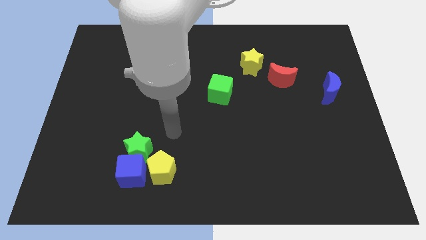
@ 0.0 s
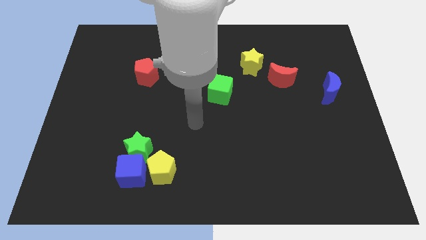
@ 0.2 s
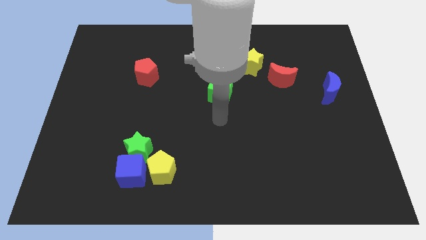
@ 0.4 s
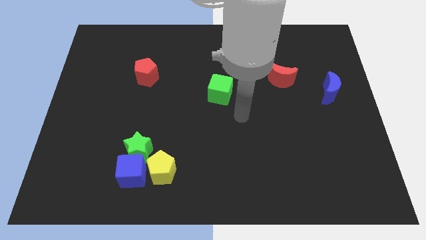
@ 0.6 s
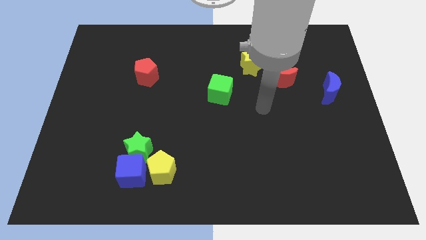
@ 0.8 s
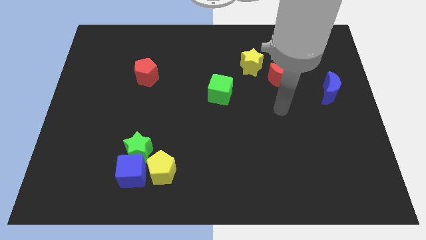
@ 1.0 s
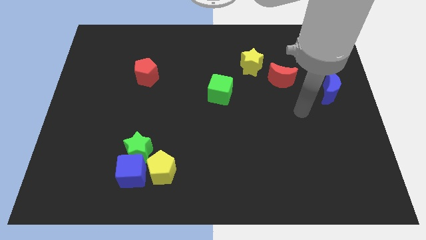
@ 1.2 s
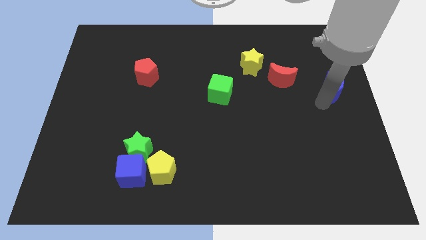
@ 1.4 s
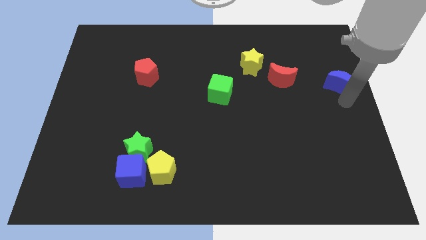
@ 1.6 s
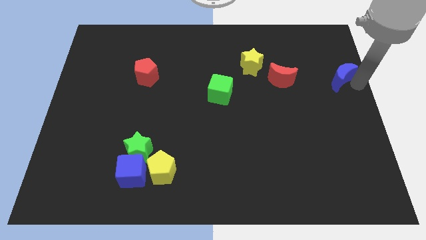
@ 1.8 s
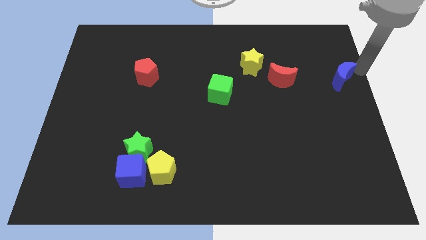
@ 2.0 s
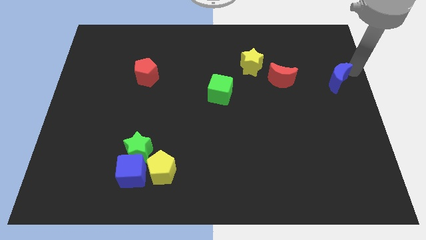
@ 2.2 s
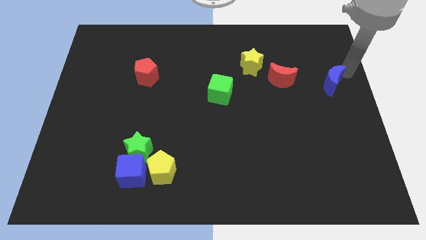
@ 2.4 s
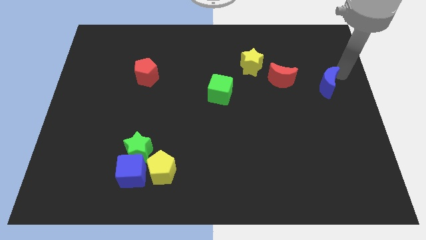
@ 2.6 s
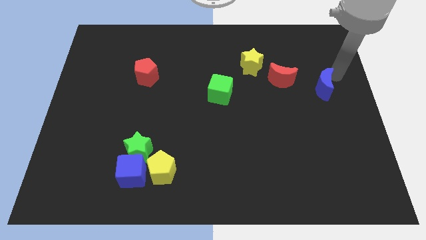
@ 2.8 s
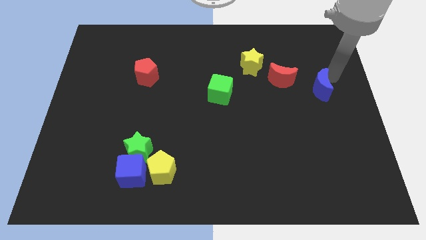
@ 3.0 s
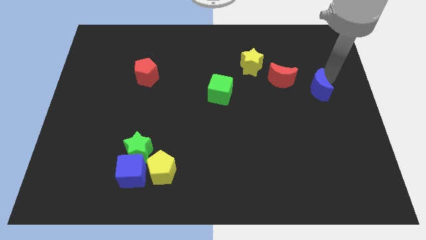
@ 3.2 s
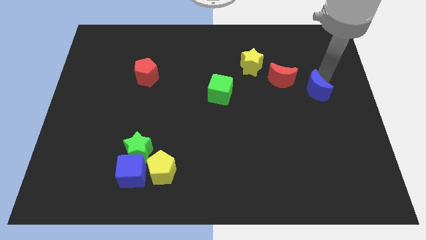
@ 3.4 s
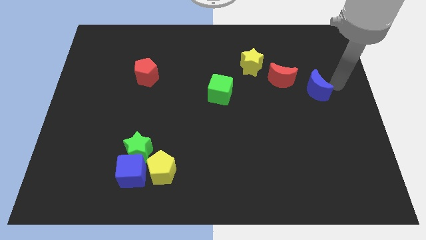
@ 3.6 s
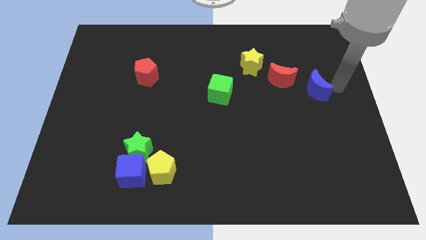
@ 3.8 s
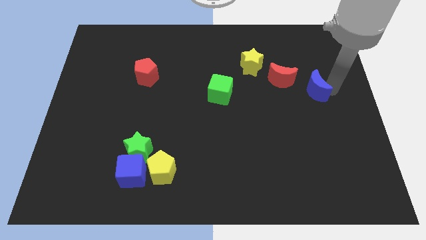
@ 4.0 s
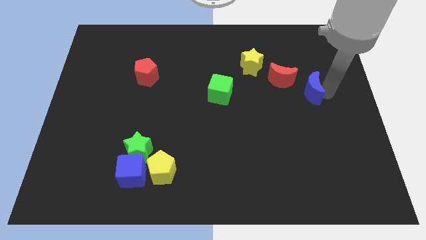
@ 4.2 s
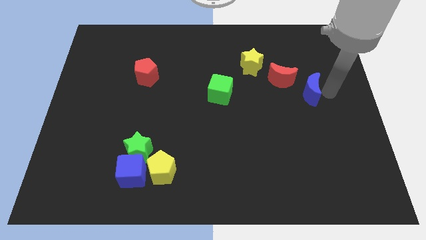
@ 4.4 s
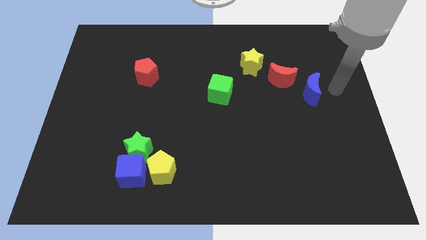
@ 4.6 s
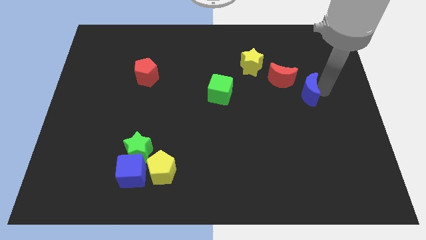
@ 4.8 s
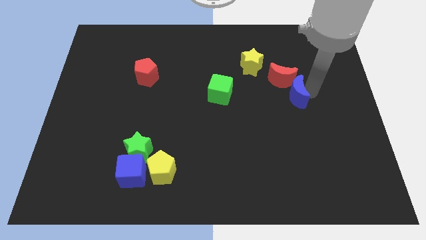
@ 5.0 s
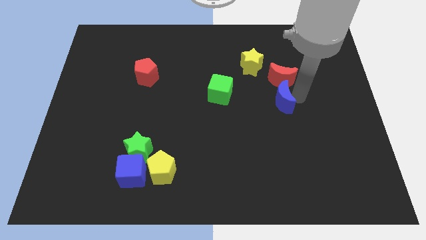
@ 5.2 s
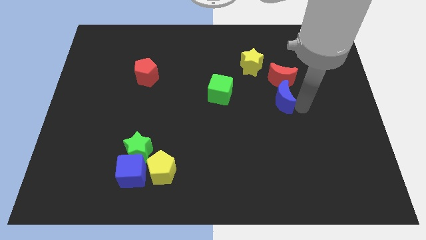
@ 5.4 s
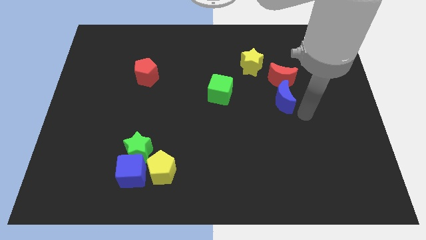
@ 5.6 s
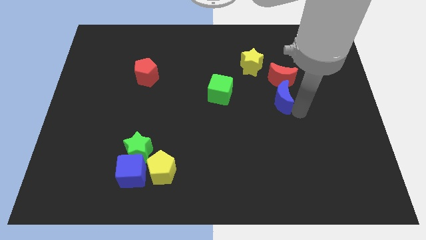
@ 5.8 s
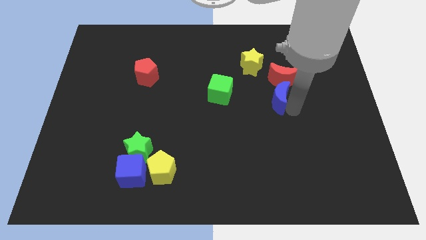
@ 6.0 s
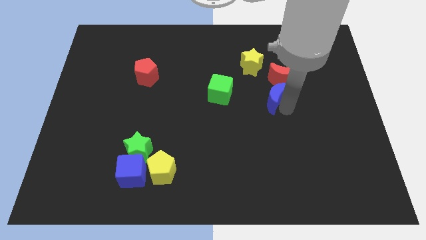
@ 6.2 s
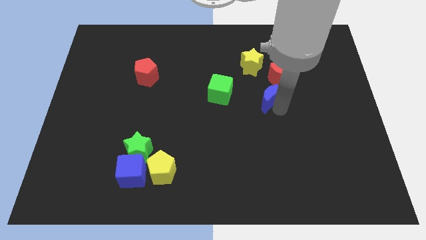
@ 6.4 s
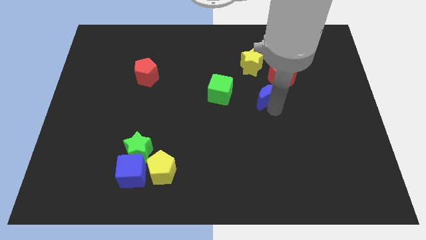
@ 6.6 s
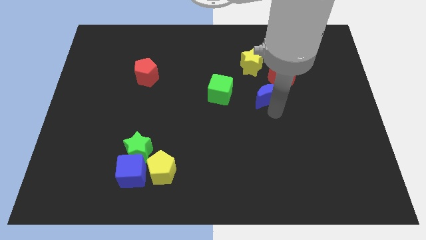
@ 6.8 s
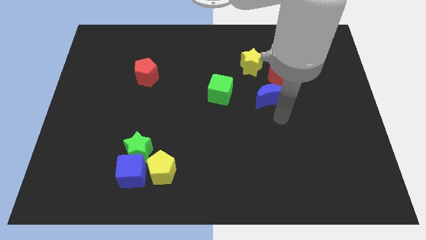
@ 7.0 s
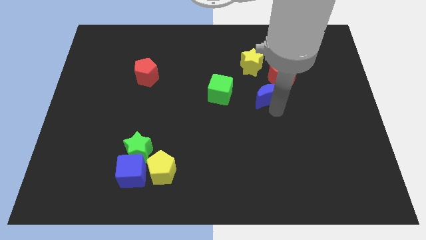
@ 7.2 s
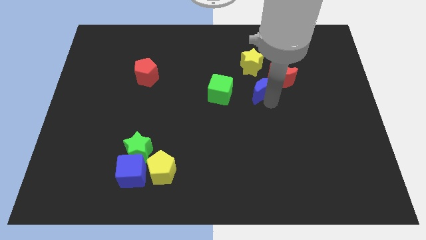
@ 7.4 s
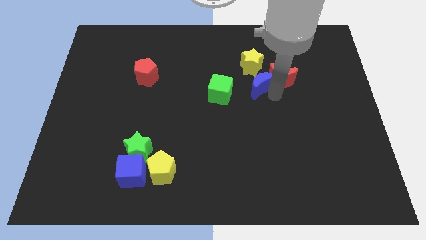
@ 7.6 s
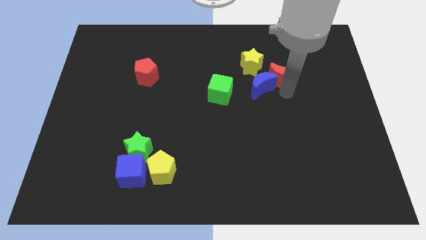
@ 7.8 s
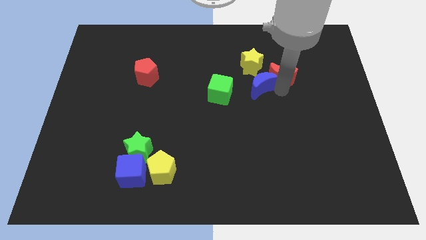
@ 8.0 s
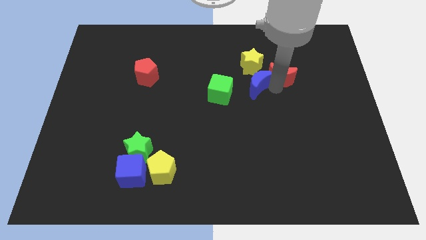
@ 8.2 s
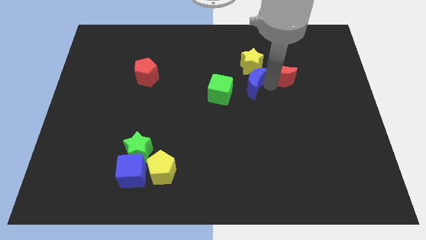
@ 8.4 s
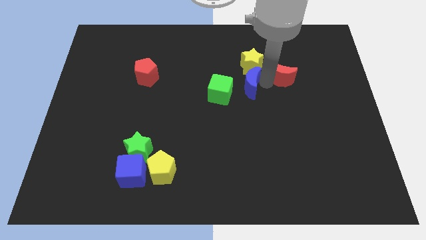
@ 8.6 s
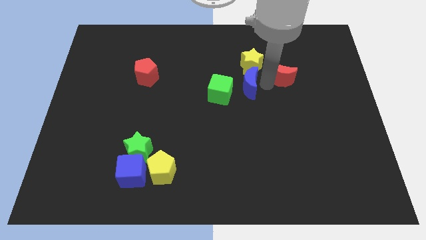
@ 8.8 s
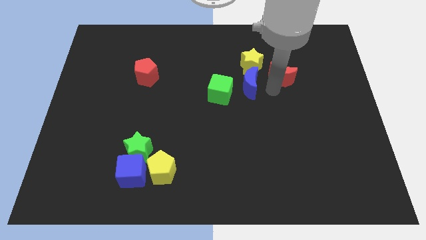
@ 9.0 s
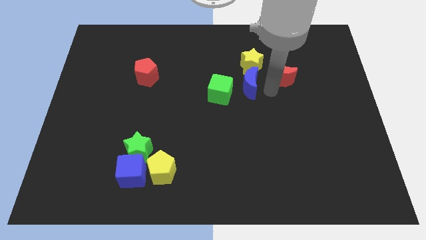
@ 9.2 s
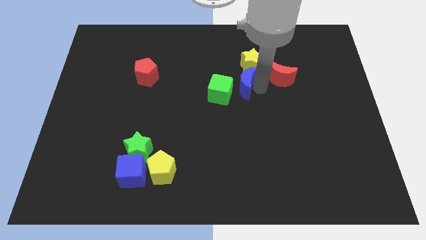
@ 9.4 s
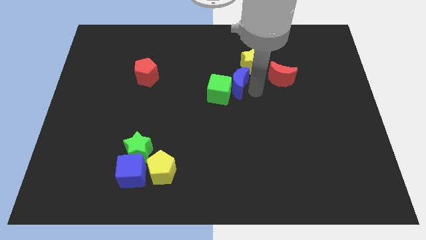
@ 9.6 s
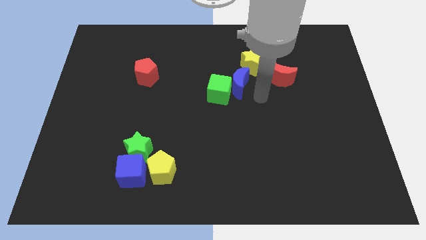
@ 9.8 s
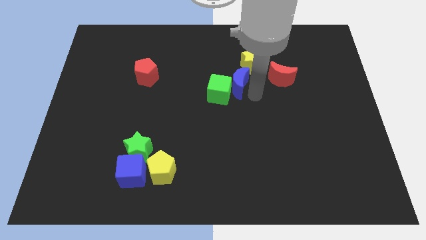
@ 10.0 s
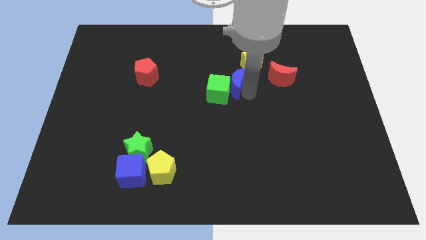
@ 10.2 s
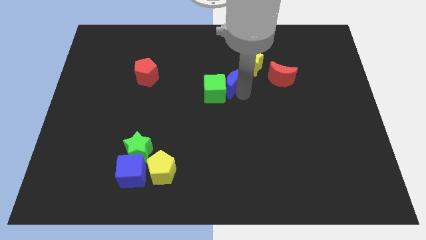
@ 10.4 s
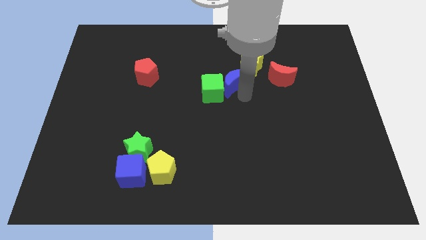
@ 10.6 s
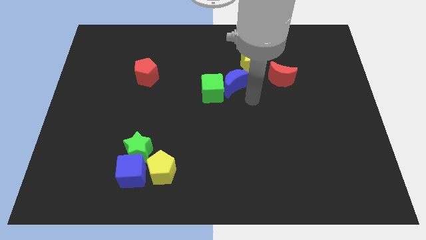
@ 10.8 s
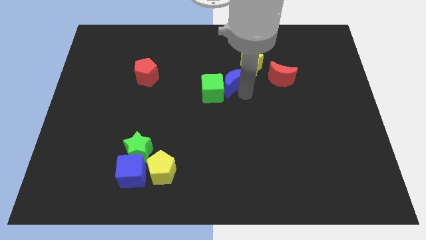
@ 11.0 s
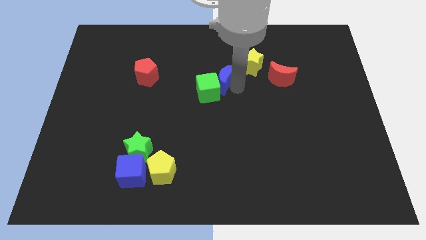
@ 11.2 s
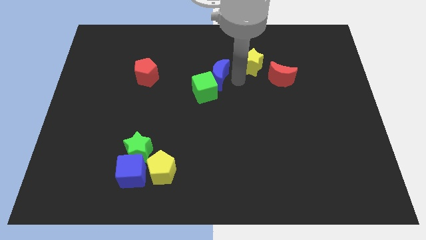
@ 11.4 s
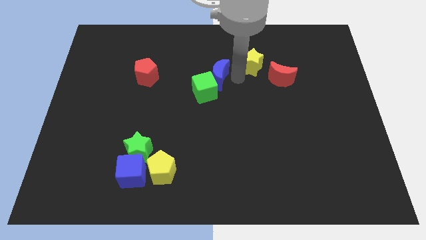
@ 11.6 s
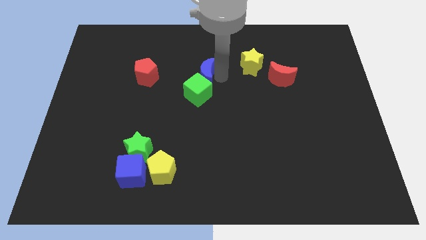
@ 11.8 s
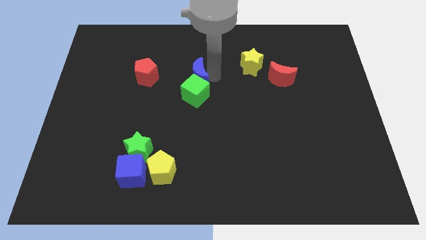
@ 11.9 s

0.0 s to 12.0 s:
put the blue moon diagonally up and to the left of the green cube

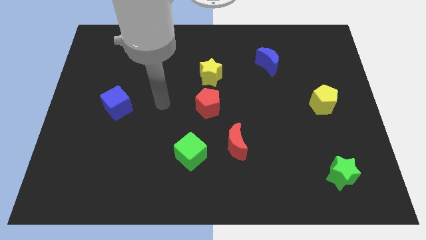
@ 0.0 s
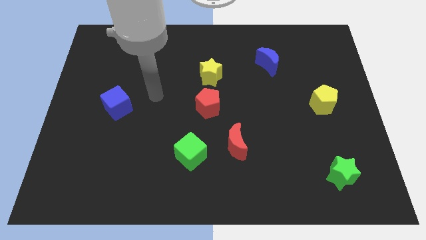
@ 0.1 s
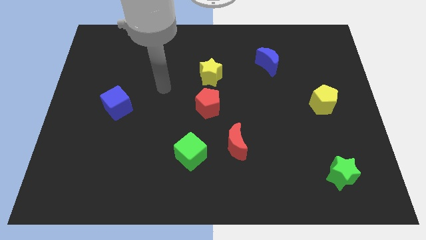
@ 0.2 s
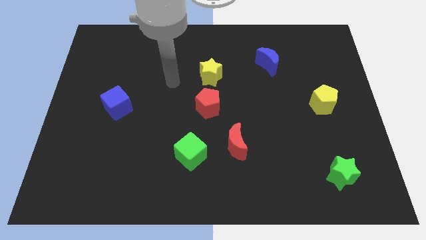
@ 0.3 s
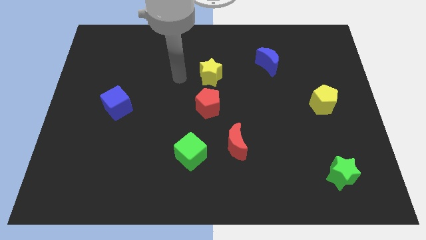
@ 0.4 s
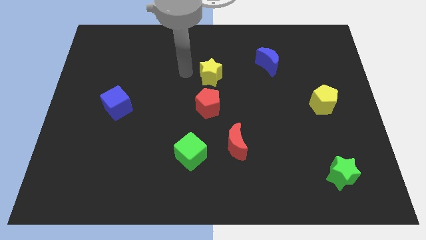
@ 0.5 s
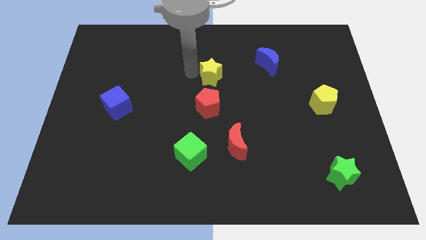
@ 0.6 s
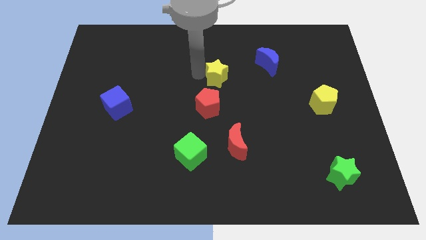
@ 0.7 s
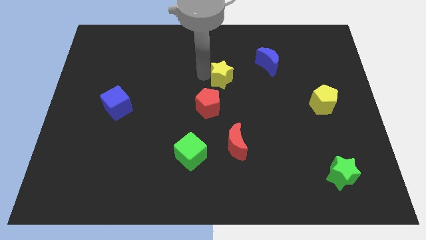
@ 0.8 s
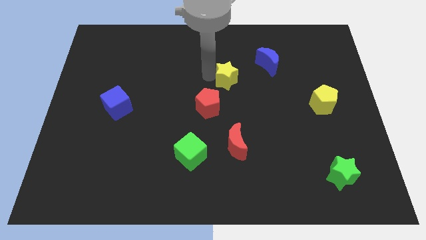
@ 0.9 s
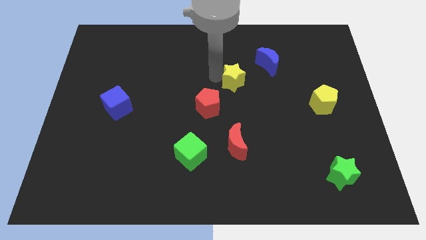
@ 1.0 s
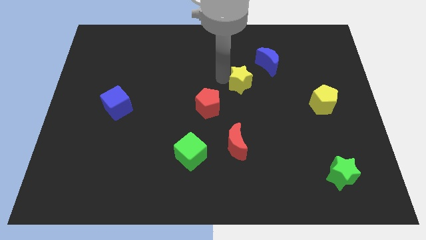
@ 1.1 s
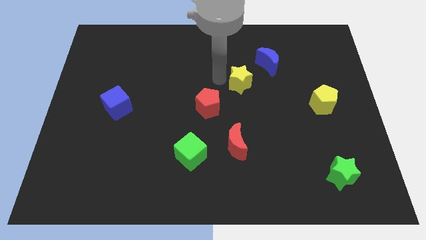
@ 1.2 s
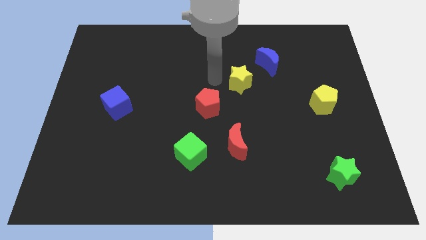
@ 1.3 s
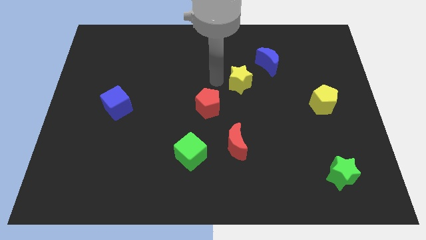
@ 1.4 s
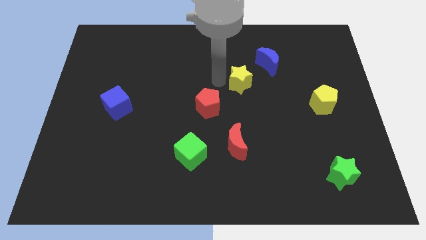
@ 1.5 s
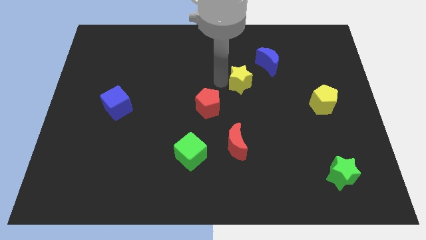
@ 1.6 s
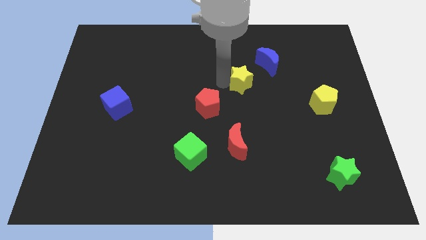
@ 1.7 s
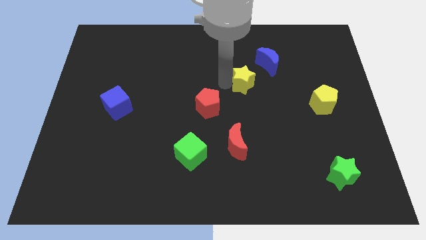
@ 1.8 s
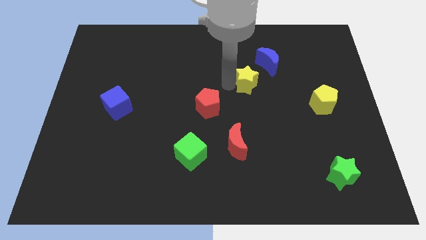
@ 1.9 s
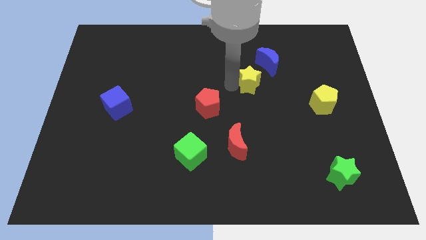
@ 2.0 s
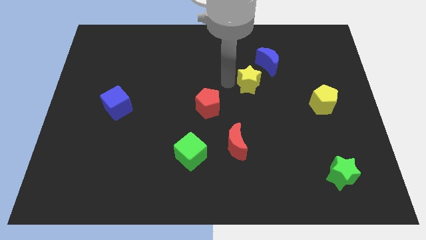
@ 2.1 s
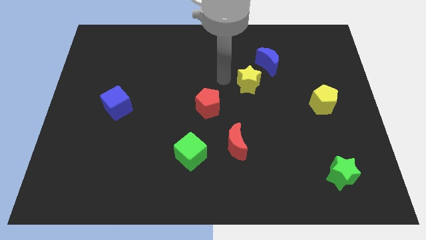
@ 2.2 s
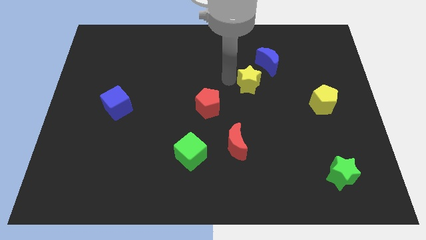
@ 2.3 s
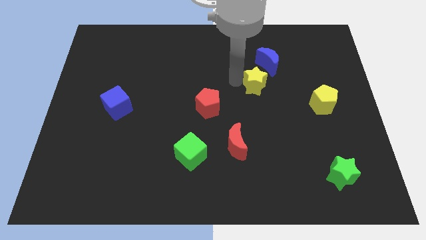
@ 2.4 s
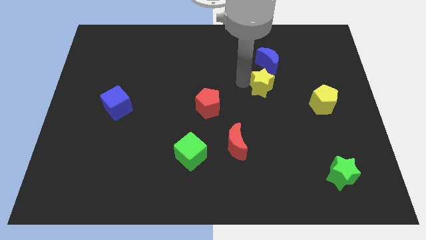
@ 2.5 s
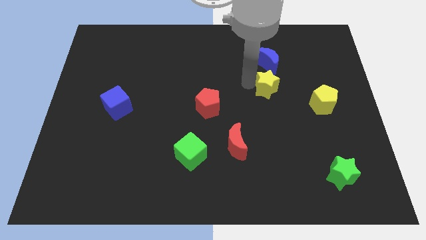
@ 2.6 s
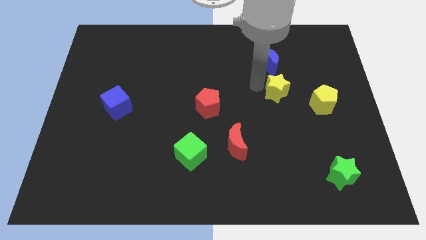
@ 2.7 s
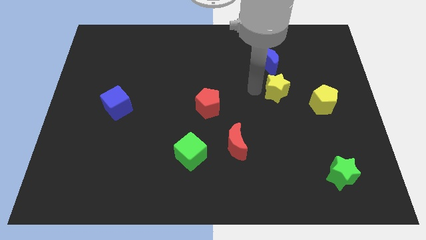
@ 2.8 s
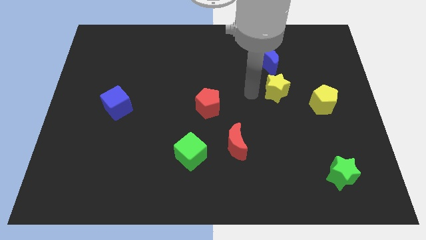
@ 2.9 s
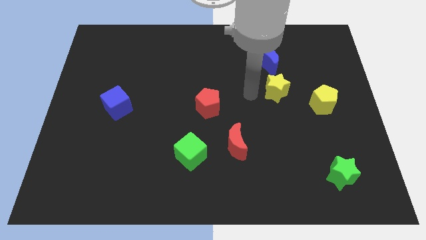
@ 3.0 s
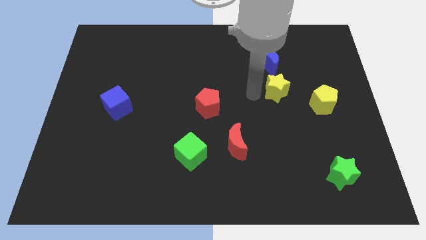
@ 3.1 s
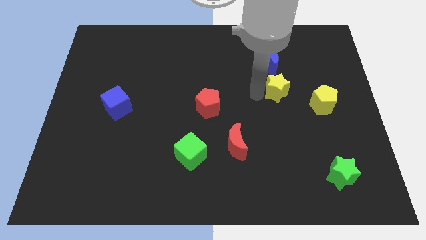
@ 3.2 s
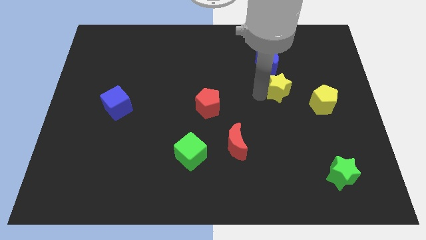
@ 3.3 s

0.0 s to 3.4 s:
move the yellow star to the top left side of the yellow pentagon
